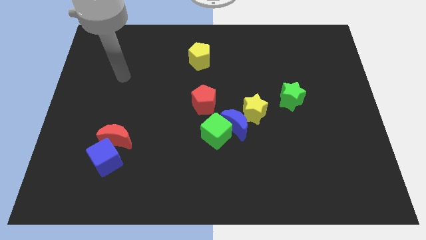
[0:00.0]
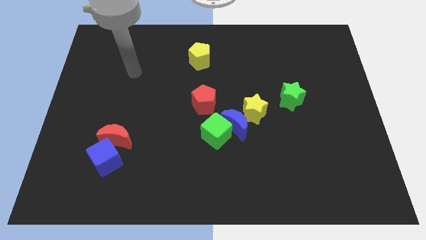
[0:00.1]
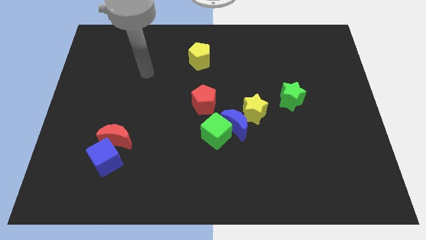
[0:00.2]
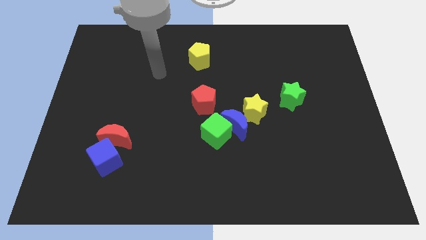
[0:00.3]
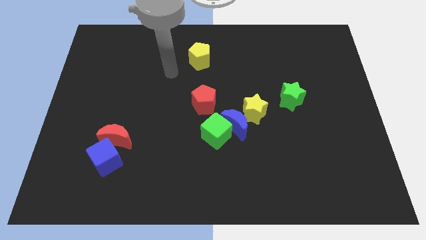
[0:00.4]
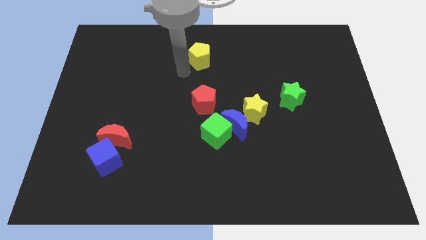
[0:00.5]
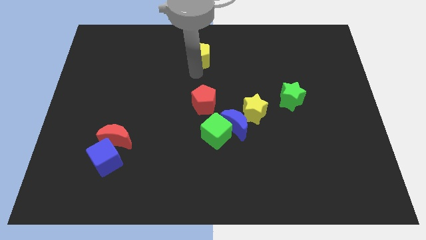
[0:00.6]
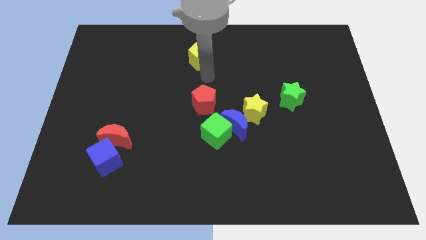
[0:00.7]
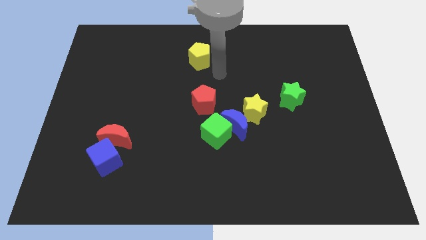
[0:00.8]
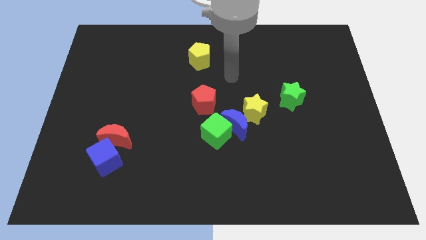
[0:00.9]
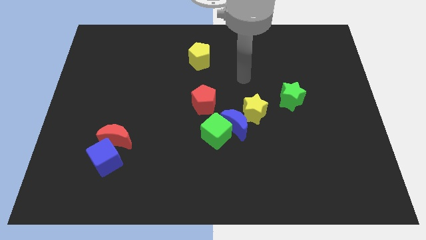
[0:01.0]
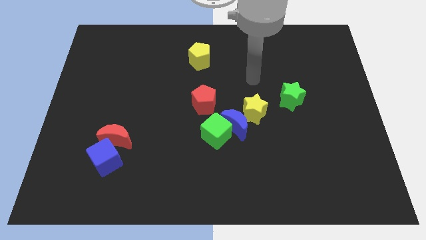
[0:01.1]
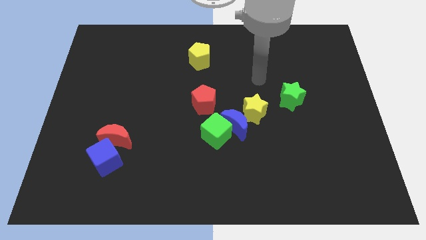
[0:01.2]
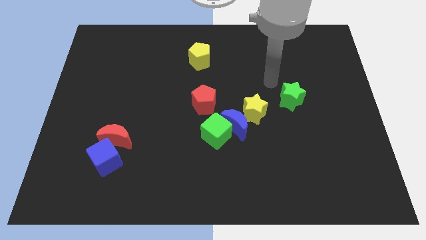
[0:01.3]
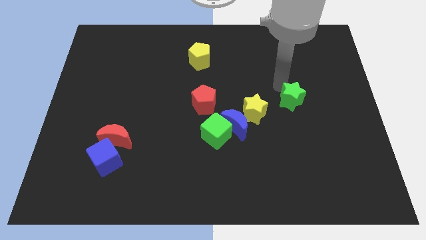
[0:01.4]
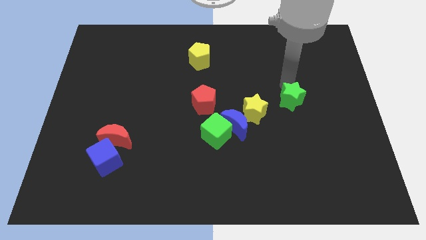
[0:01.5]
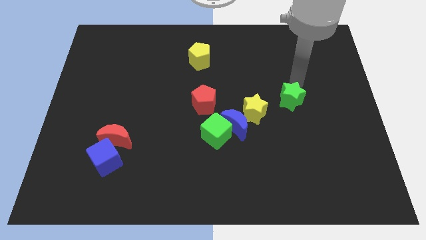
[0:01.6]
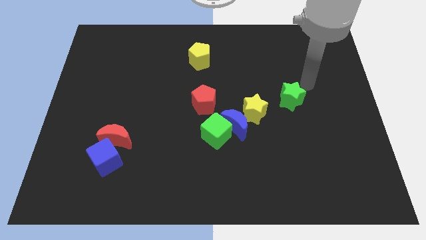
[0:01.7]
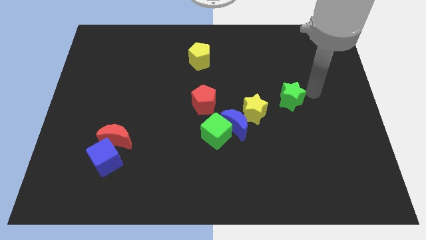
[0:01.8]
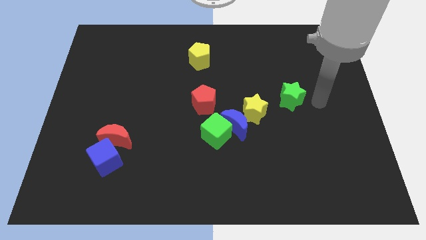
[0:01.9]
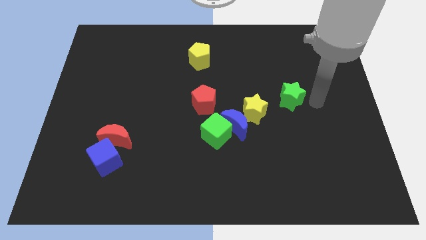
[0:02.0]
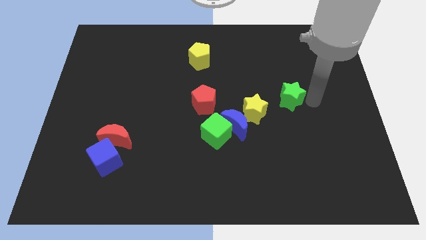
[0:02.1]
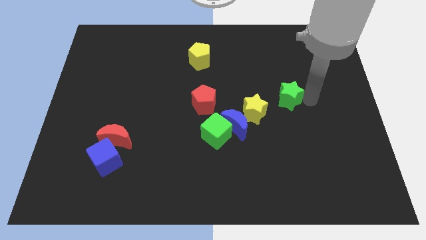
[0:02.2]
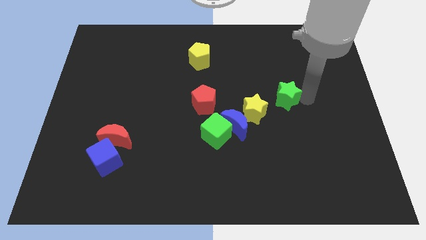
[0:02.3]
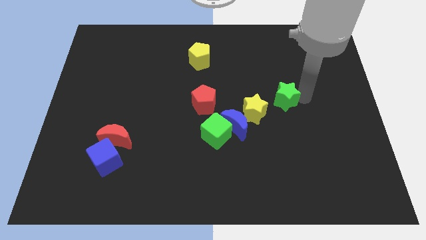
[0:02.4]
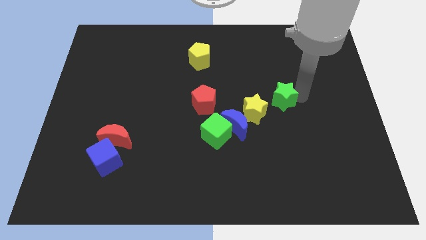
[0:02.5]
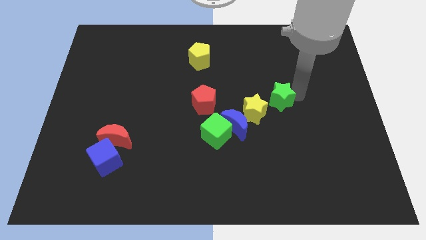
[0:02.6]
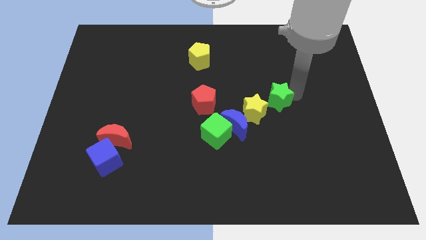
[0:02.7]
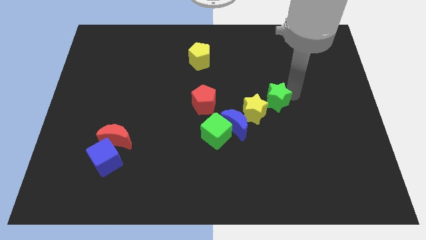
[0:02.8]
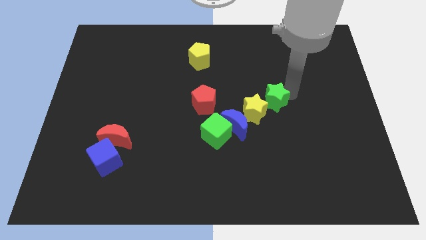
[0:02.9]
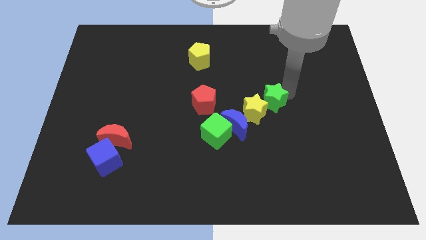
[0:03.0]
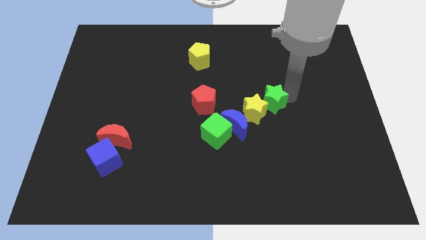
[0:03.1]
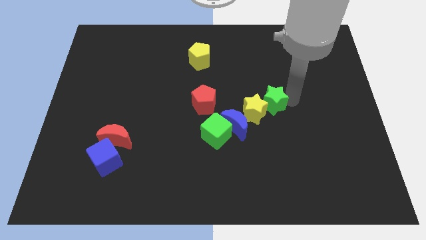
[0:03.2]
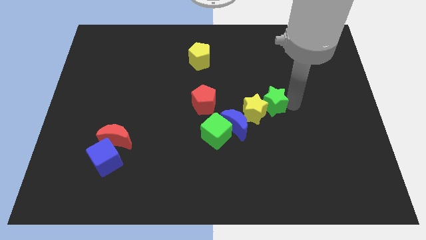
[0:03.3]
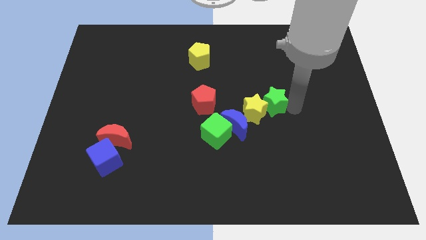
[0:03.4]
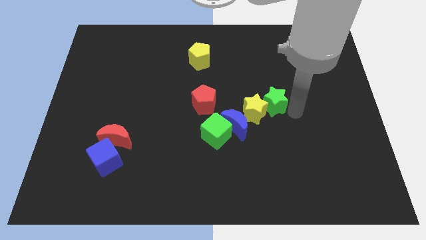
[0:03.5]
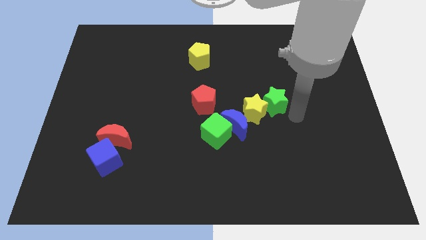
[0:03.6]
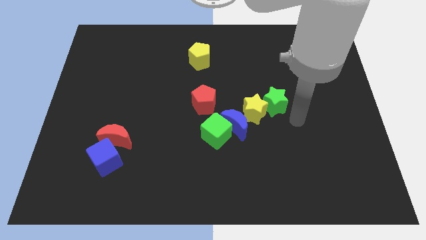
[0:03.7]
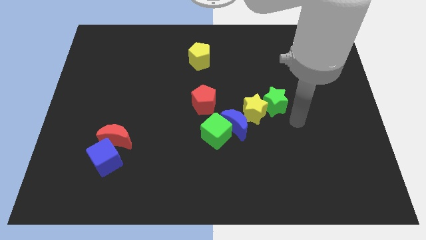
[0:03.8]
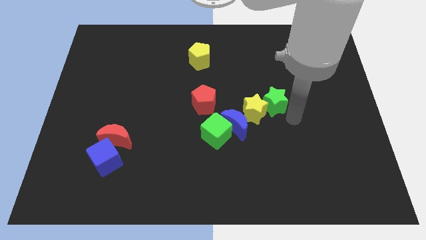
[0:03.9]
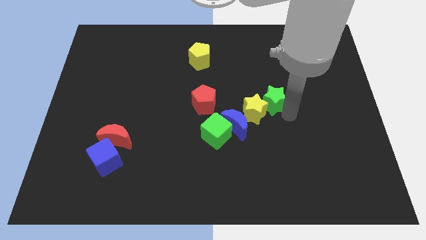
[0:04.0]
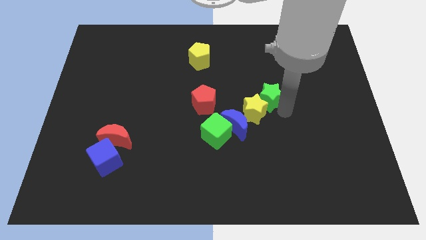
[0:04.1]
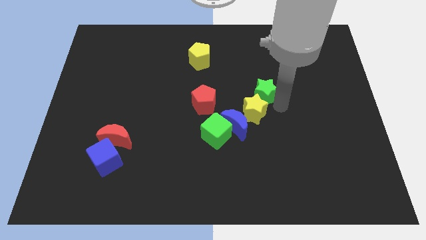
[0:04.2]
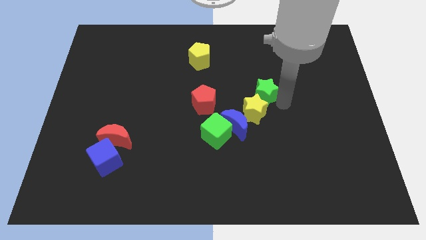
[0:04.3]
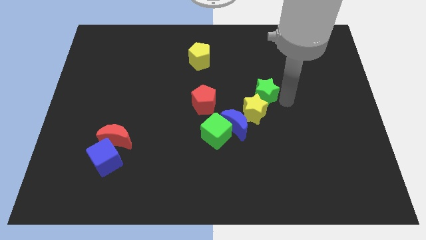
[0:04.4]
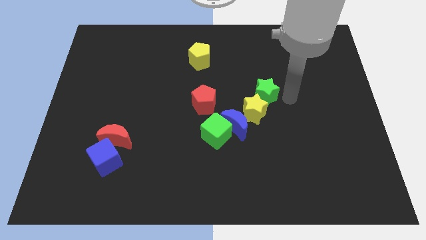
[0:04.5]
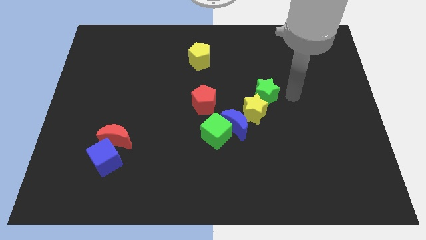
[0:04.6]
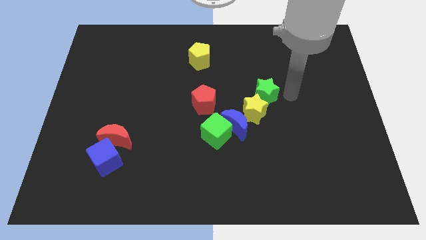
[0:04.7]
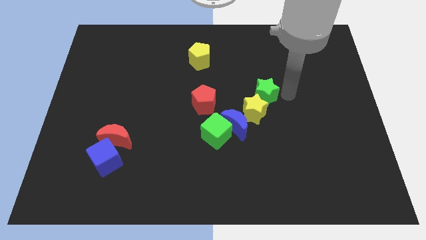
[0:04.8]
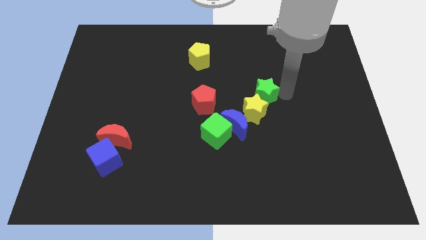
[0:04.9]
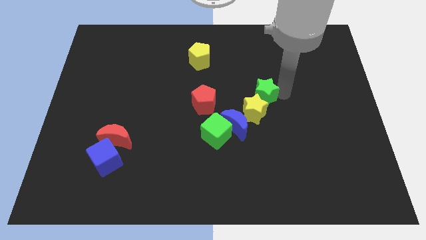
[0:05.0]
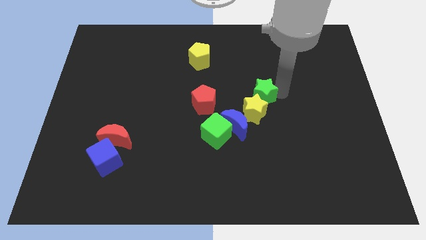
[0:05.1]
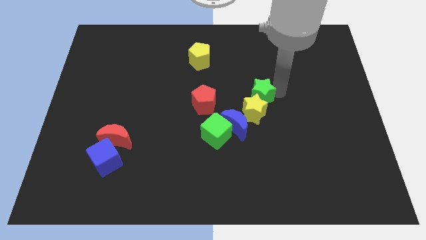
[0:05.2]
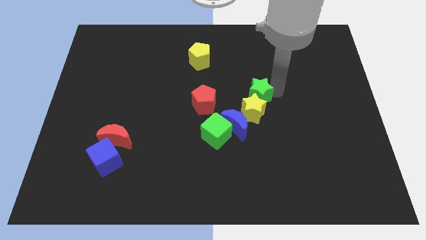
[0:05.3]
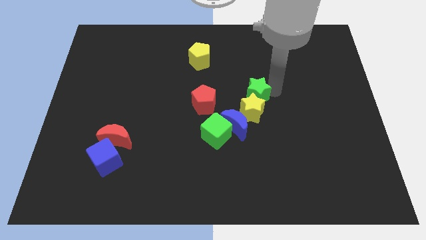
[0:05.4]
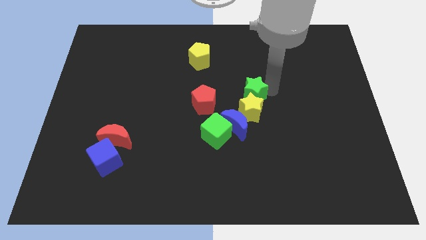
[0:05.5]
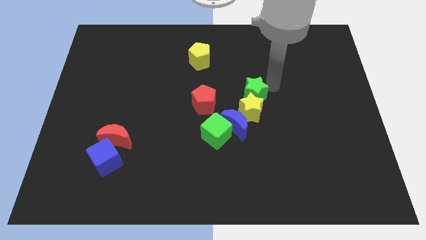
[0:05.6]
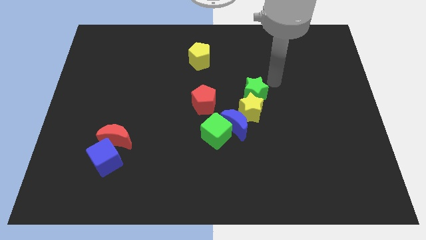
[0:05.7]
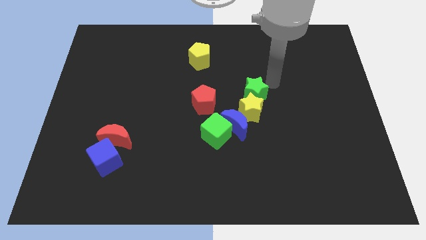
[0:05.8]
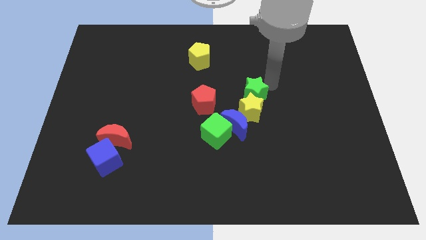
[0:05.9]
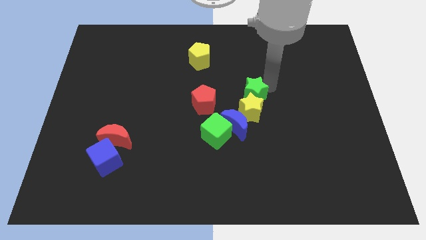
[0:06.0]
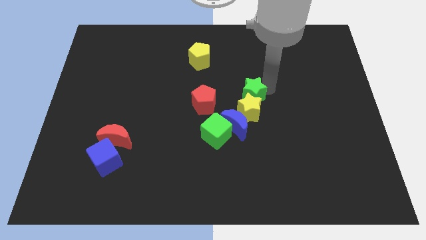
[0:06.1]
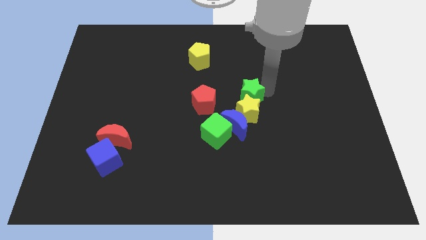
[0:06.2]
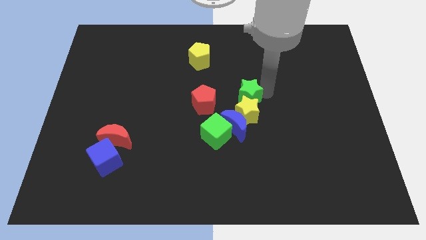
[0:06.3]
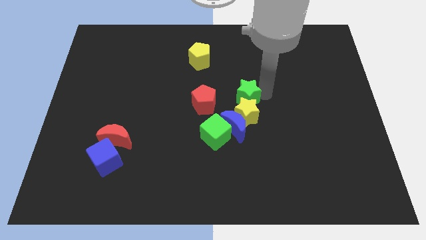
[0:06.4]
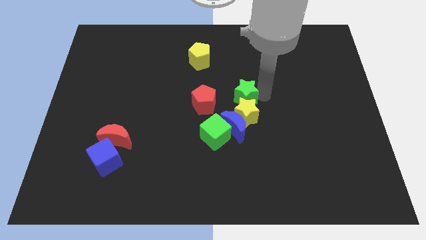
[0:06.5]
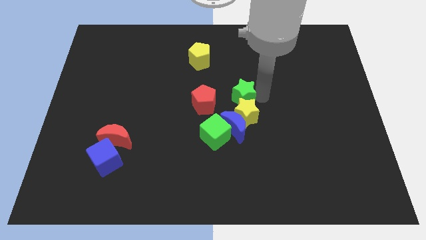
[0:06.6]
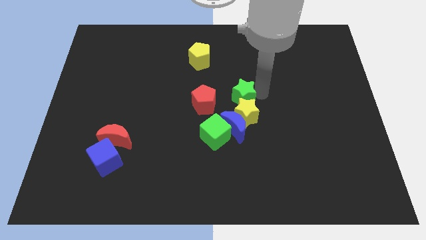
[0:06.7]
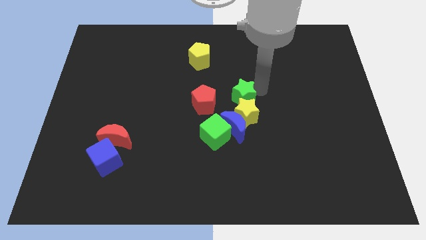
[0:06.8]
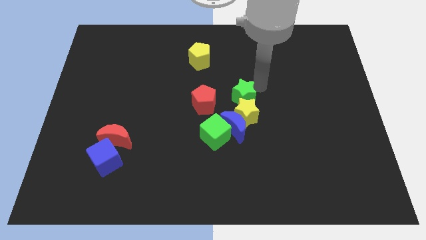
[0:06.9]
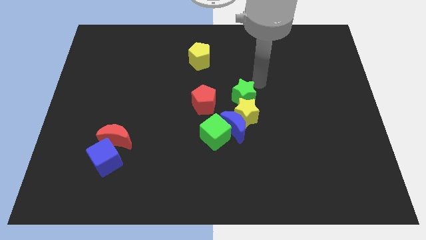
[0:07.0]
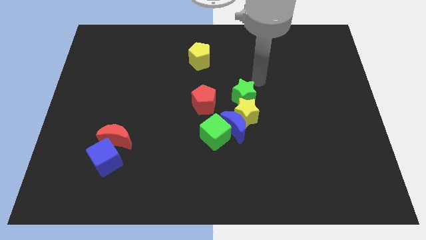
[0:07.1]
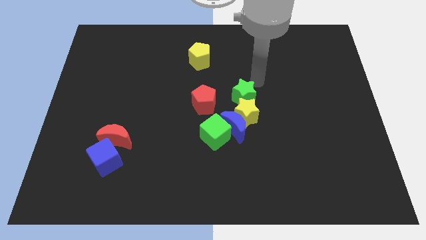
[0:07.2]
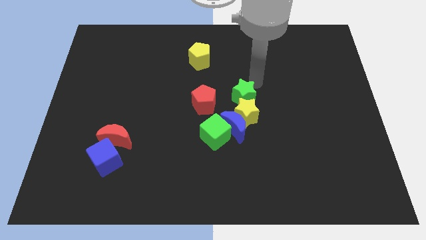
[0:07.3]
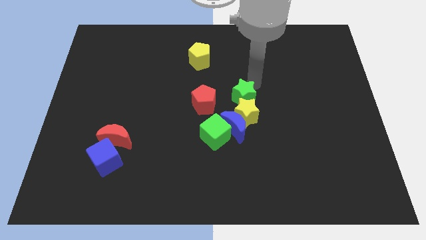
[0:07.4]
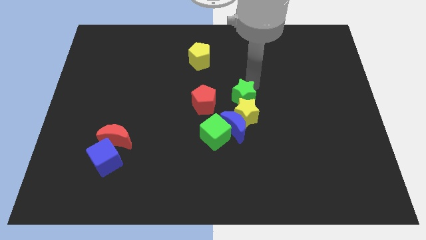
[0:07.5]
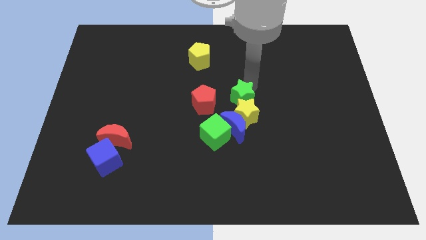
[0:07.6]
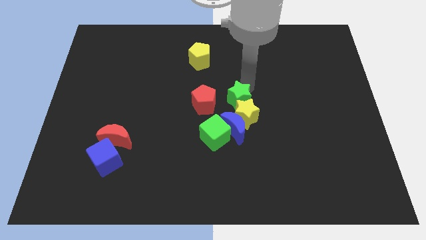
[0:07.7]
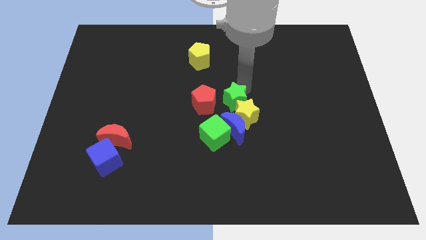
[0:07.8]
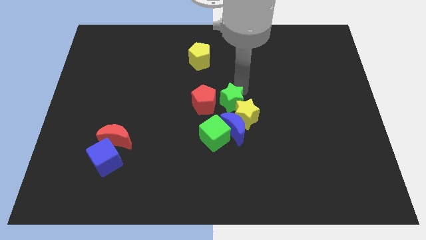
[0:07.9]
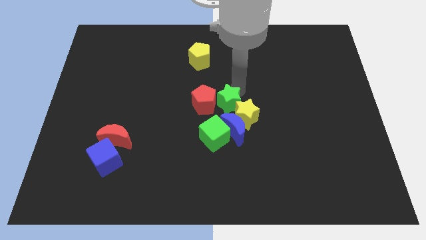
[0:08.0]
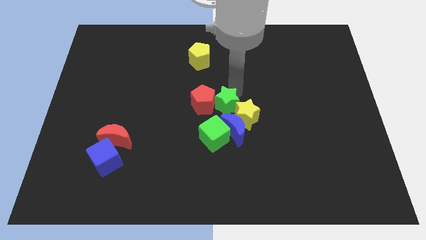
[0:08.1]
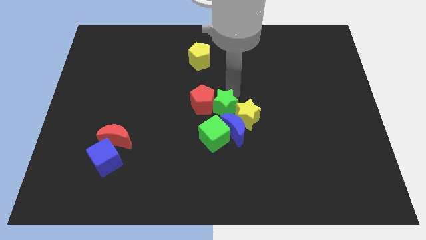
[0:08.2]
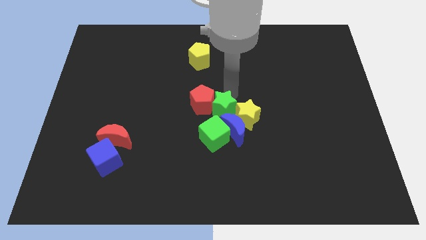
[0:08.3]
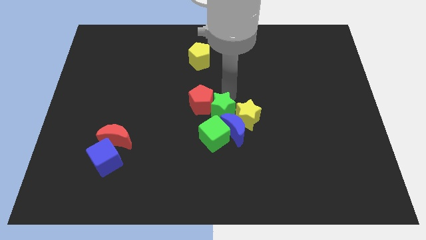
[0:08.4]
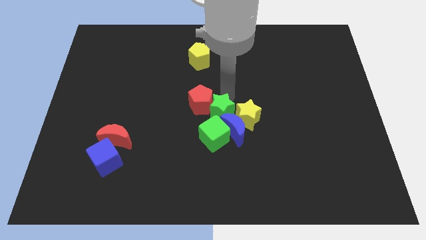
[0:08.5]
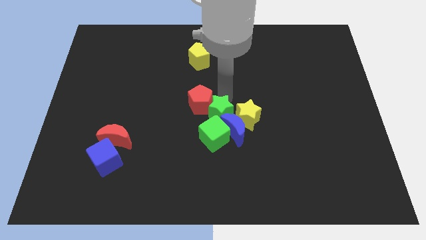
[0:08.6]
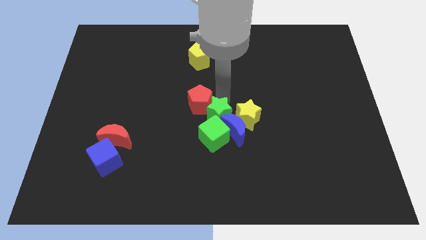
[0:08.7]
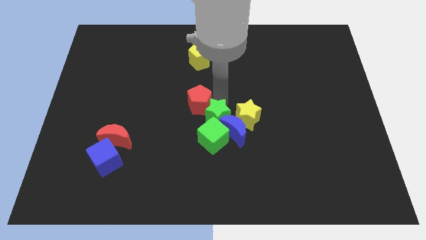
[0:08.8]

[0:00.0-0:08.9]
slide the green star to the green cube
